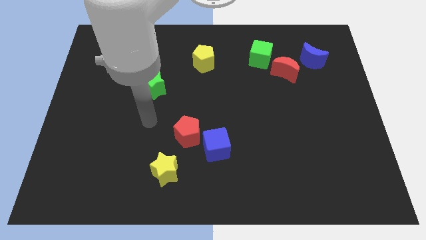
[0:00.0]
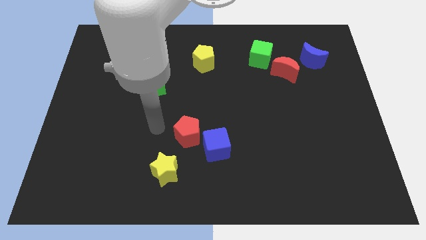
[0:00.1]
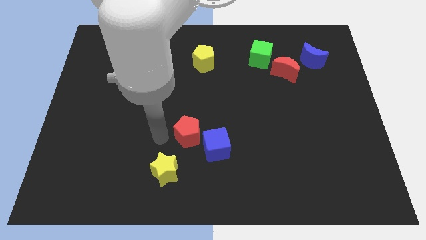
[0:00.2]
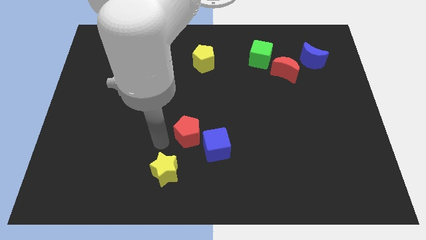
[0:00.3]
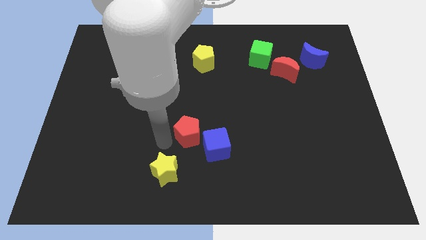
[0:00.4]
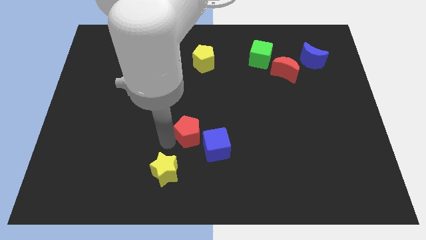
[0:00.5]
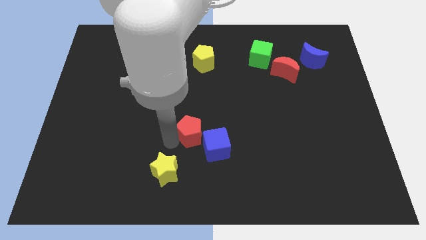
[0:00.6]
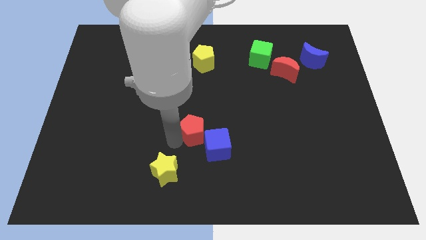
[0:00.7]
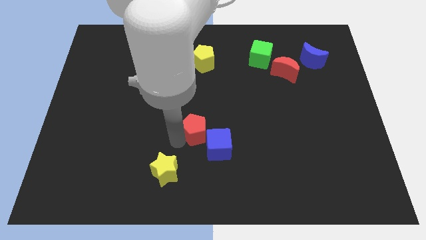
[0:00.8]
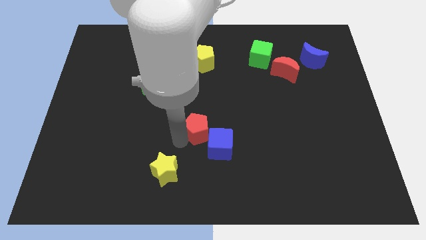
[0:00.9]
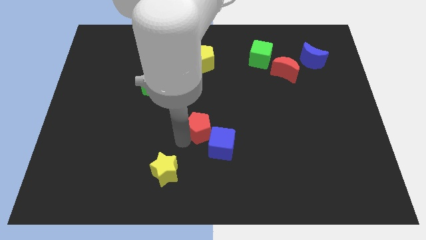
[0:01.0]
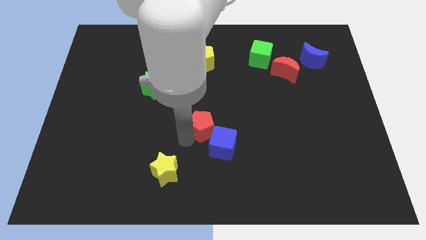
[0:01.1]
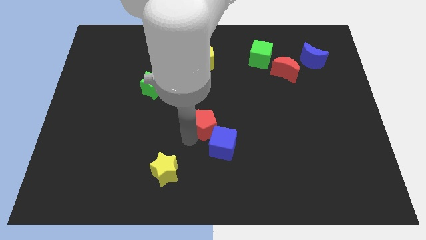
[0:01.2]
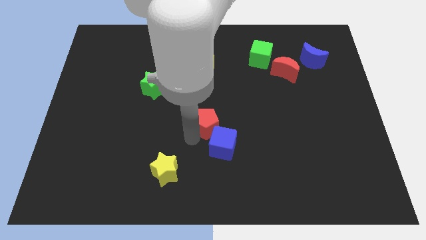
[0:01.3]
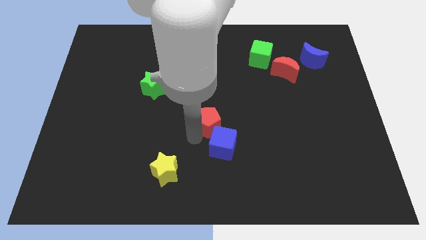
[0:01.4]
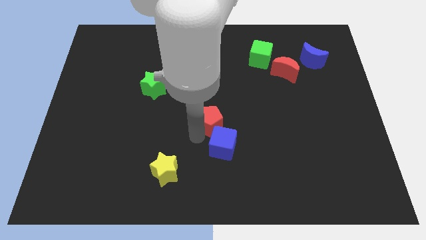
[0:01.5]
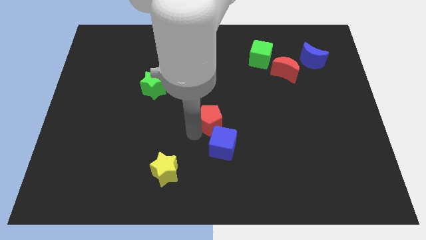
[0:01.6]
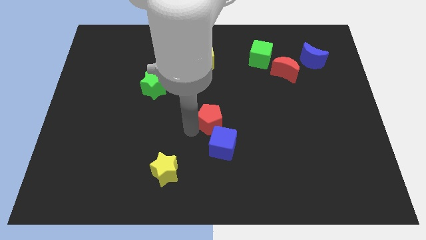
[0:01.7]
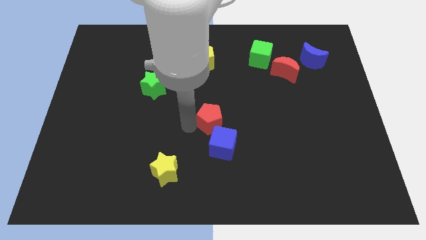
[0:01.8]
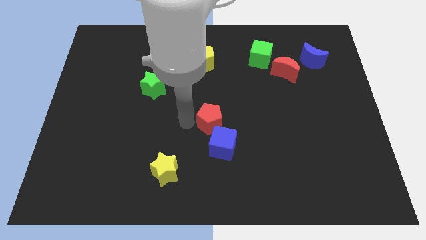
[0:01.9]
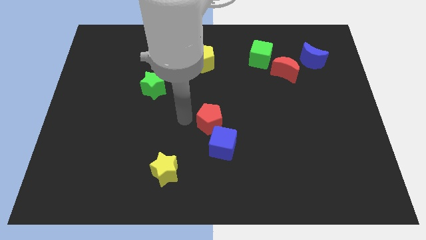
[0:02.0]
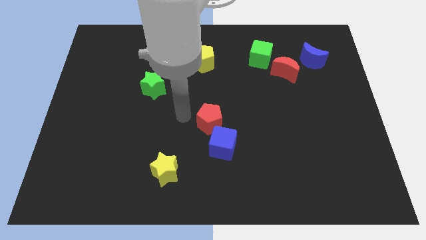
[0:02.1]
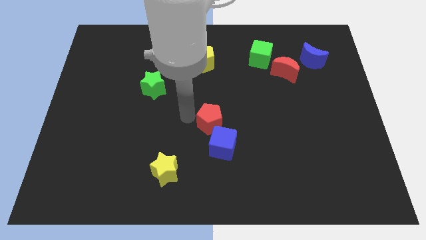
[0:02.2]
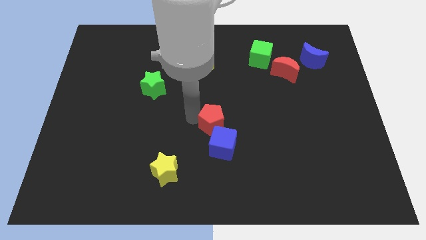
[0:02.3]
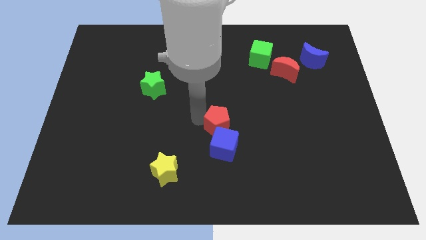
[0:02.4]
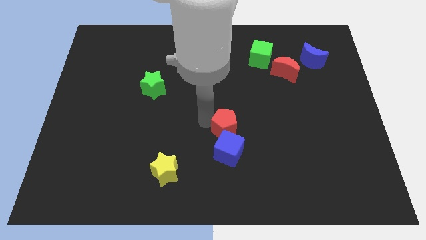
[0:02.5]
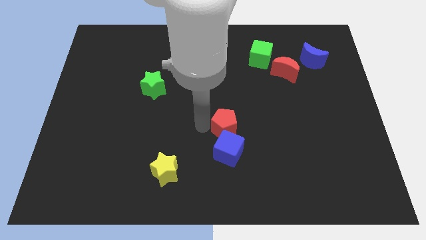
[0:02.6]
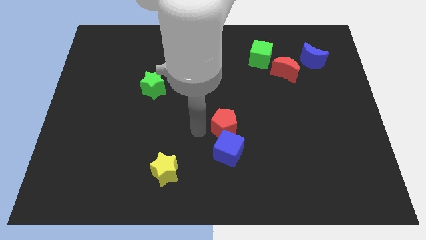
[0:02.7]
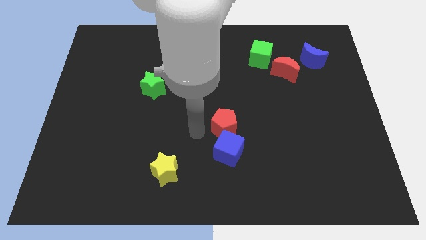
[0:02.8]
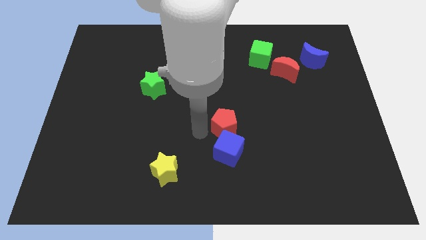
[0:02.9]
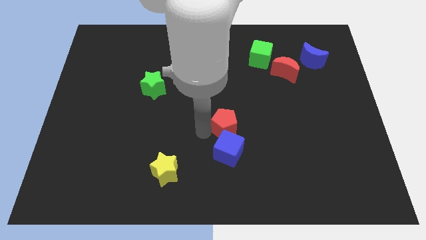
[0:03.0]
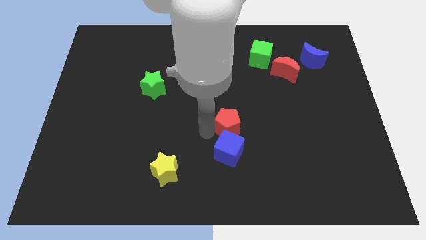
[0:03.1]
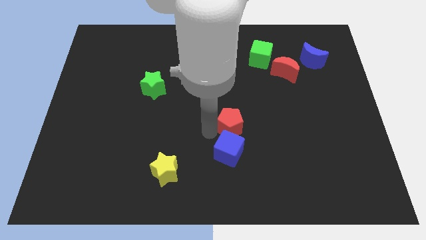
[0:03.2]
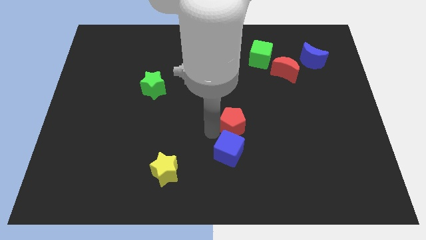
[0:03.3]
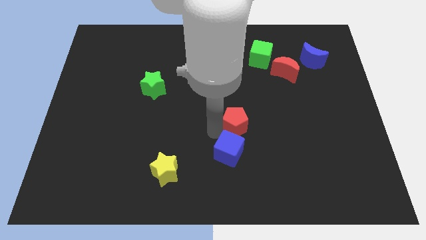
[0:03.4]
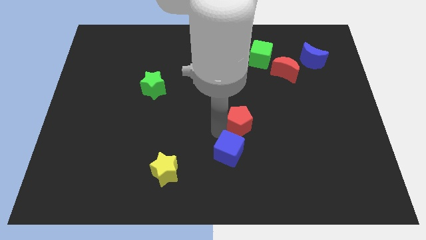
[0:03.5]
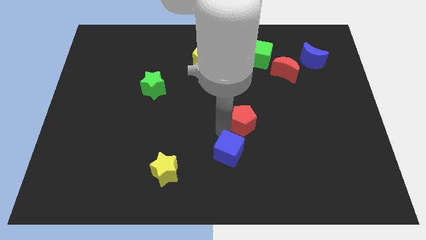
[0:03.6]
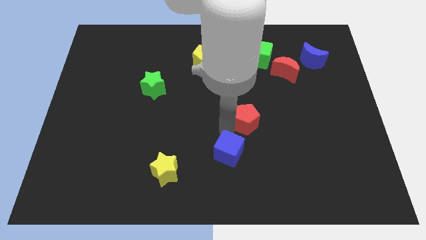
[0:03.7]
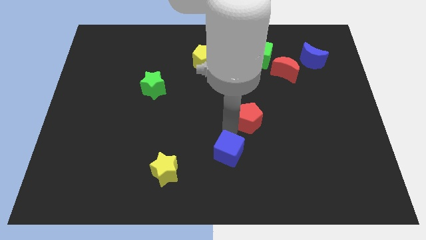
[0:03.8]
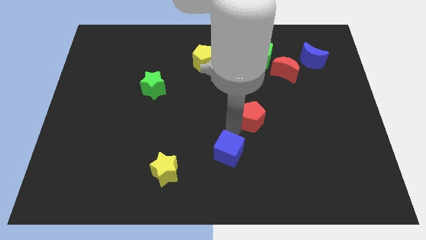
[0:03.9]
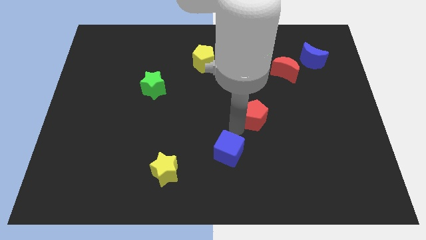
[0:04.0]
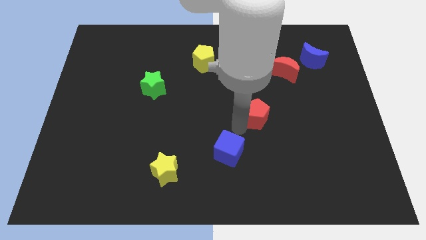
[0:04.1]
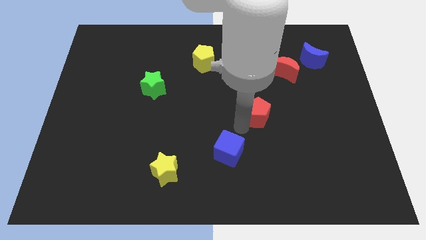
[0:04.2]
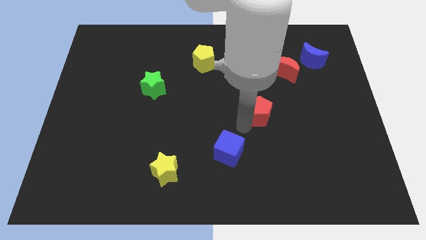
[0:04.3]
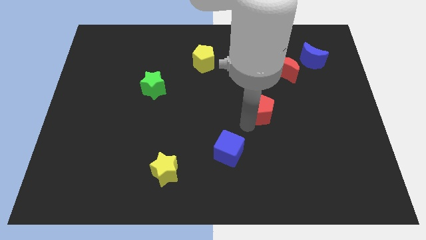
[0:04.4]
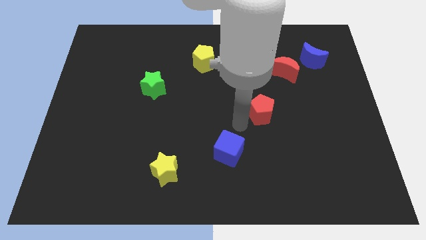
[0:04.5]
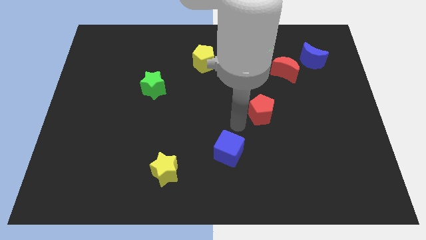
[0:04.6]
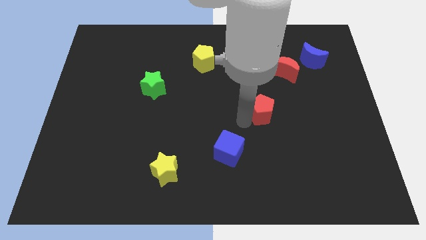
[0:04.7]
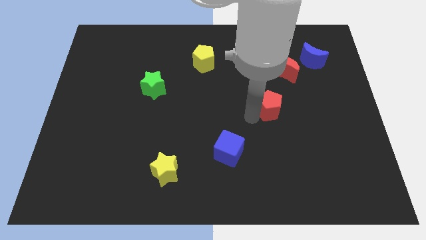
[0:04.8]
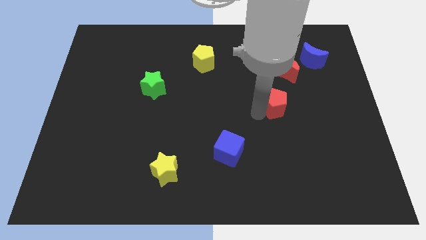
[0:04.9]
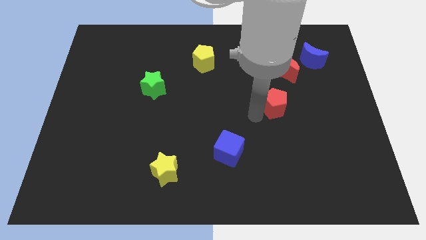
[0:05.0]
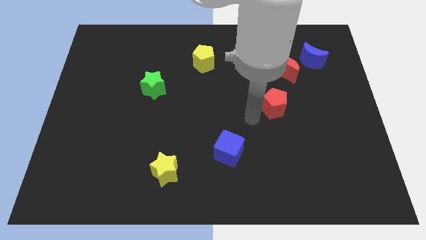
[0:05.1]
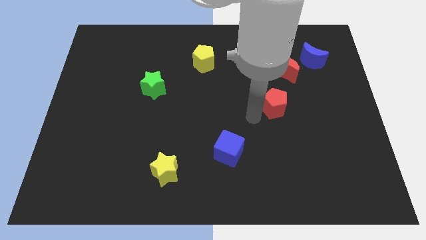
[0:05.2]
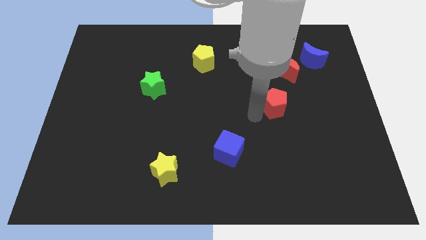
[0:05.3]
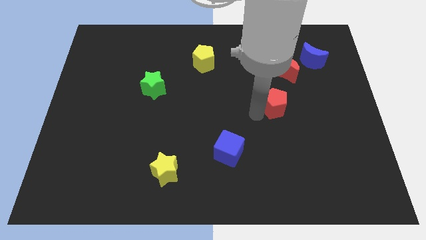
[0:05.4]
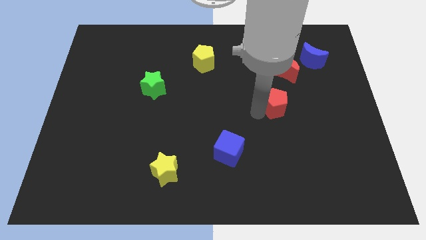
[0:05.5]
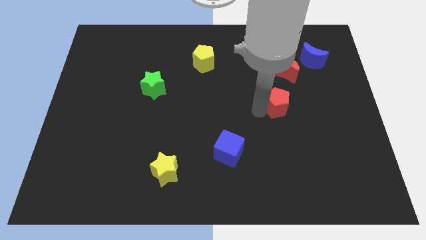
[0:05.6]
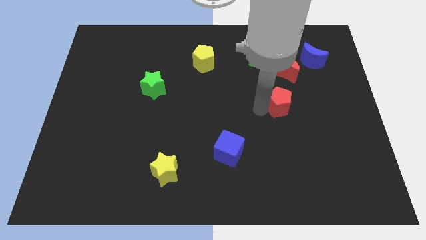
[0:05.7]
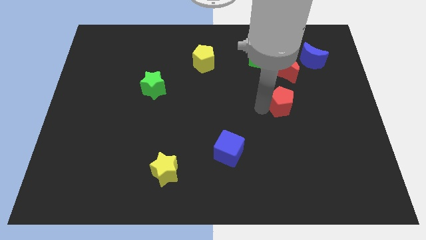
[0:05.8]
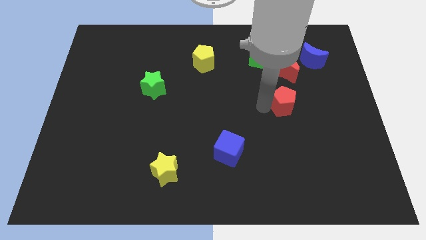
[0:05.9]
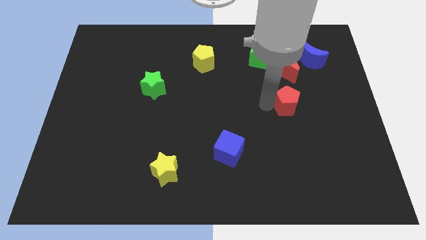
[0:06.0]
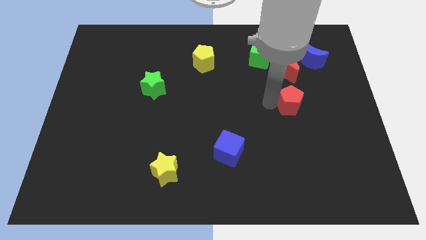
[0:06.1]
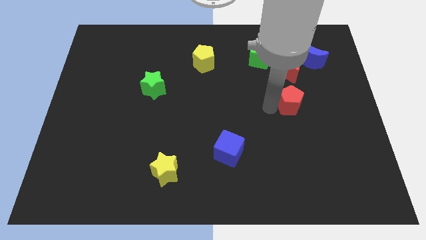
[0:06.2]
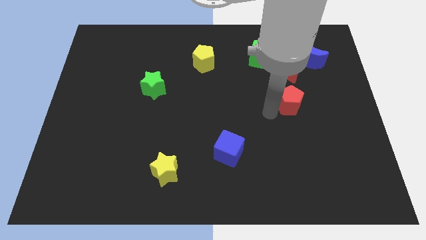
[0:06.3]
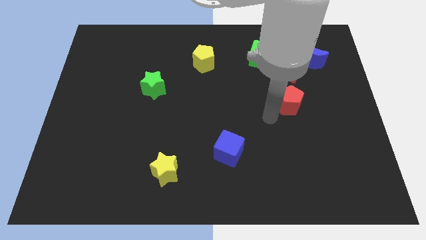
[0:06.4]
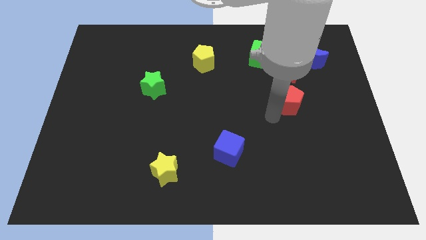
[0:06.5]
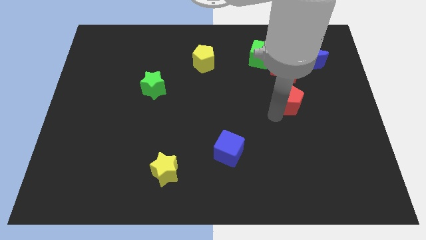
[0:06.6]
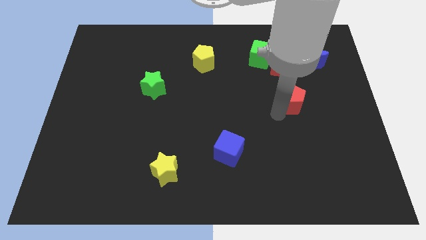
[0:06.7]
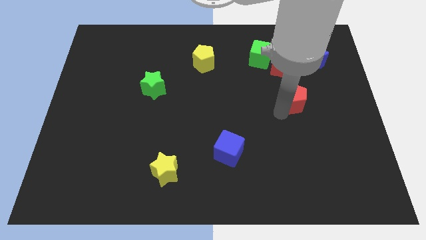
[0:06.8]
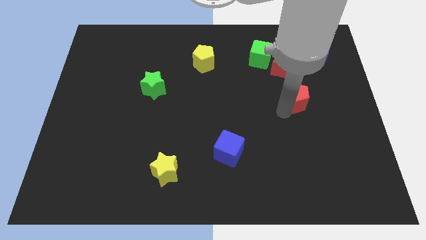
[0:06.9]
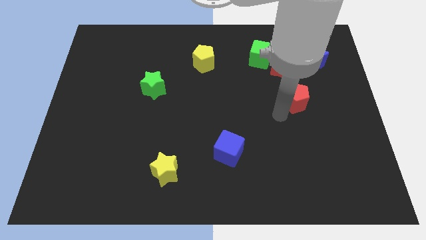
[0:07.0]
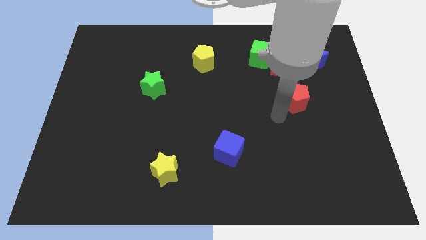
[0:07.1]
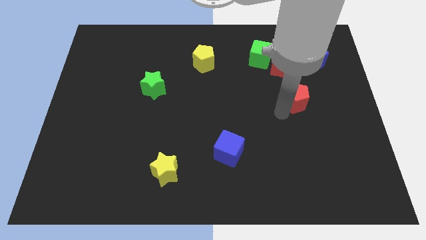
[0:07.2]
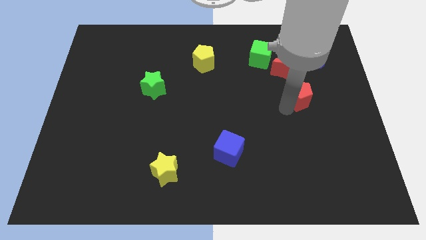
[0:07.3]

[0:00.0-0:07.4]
move the red pentagon to the bottom right of the red moon
